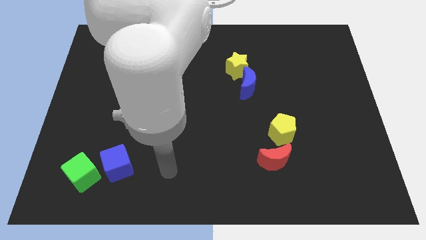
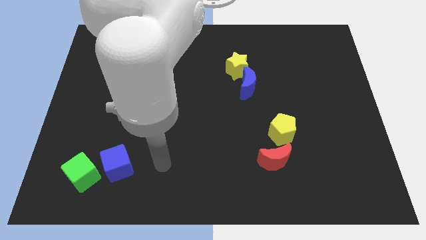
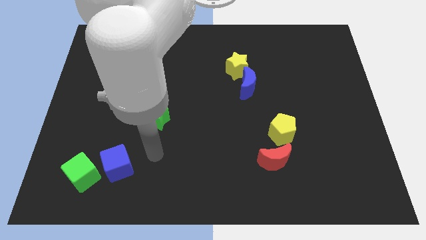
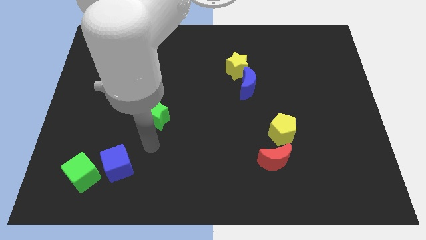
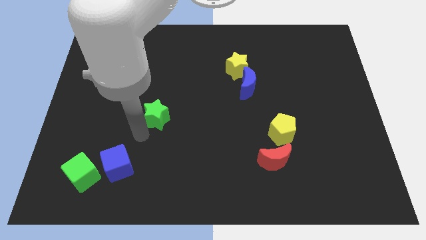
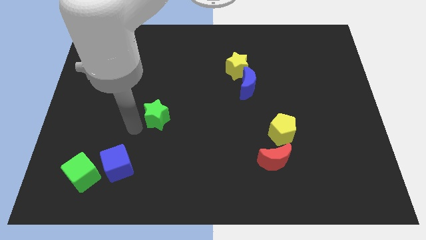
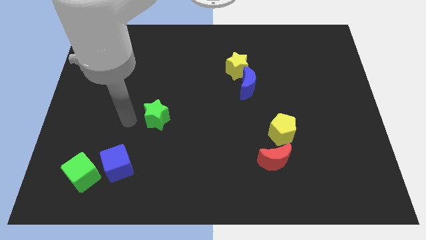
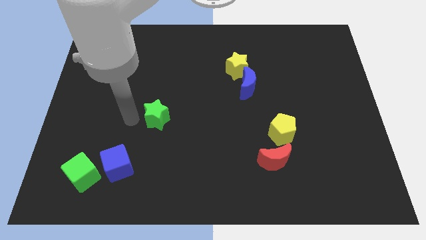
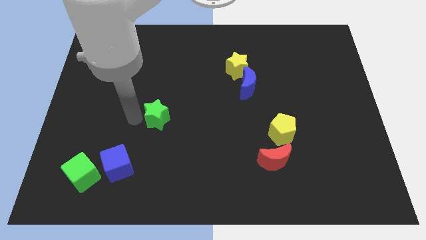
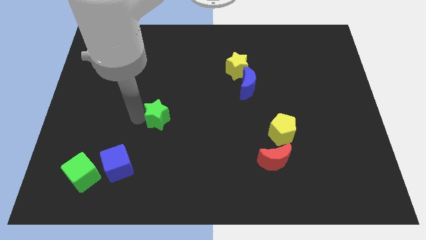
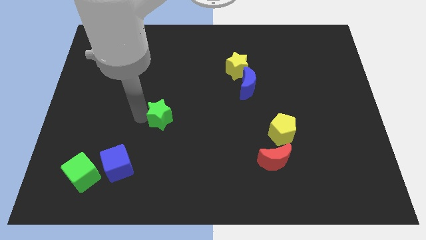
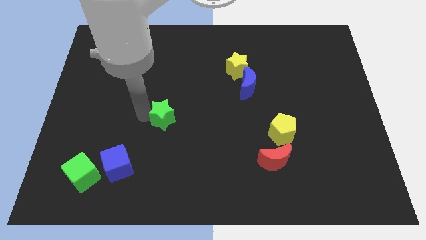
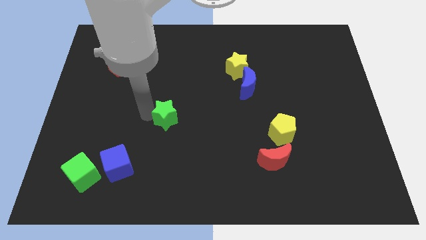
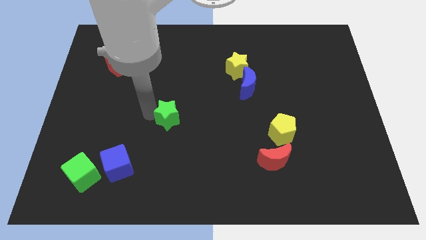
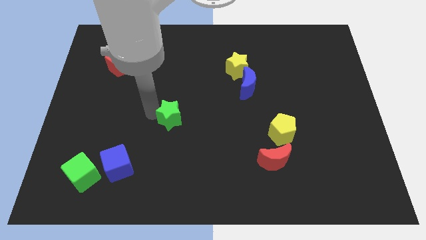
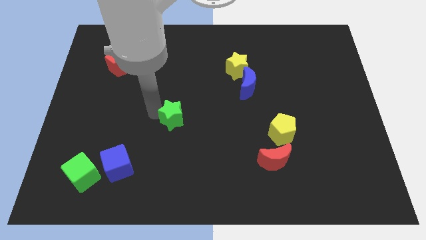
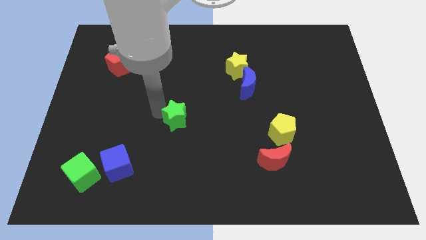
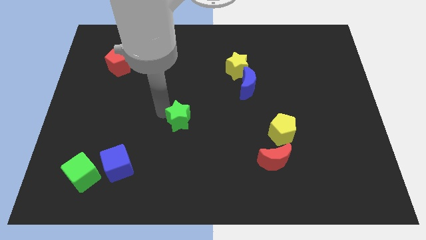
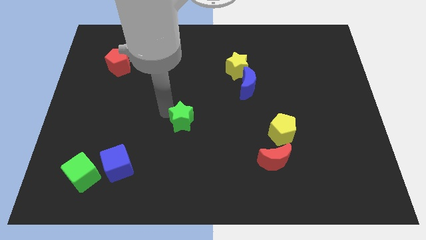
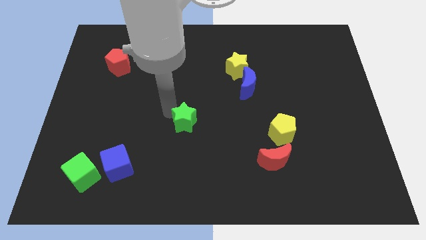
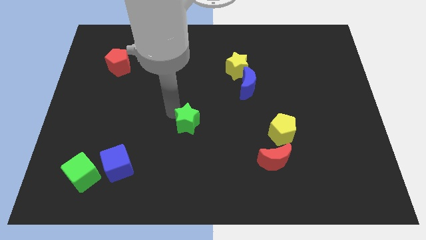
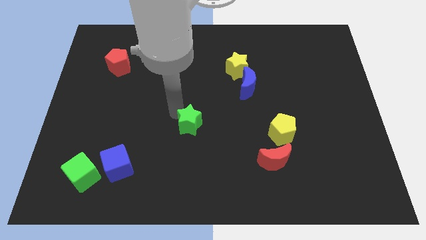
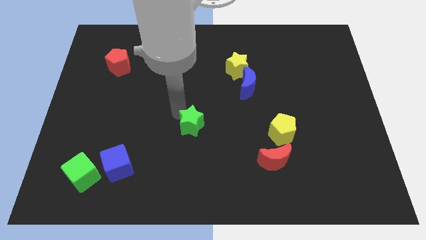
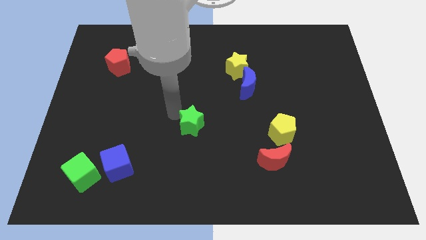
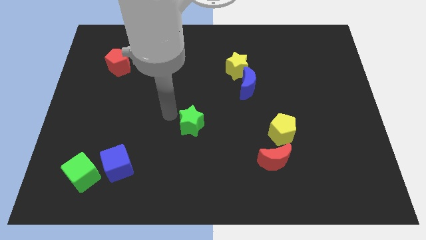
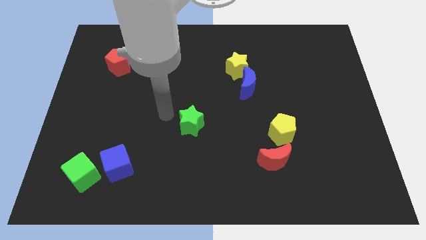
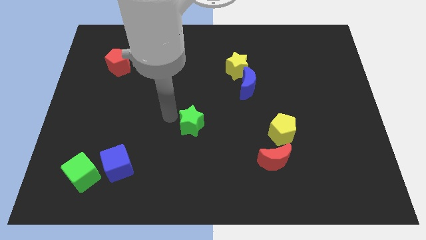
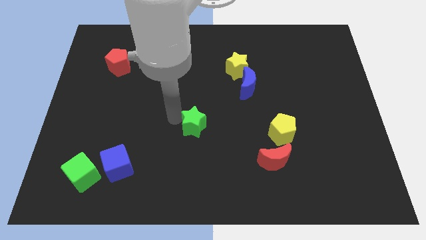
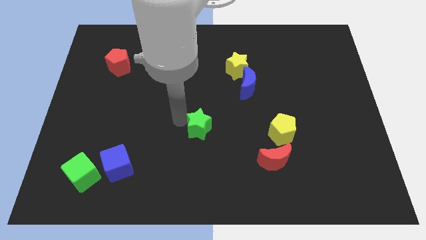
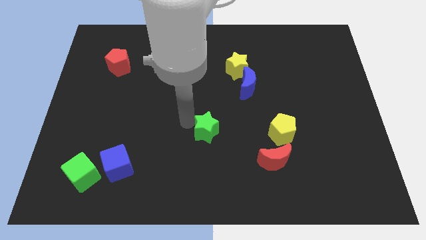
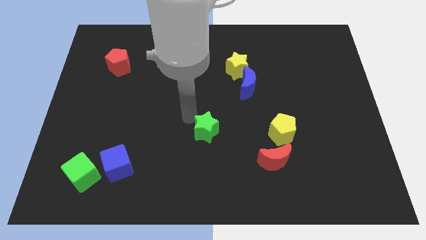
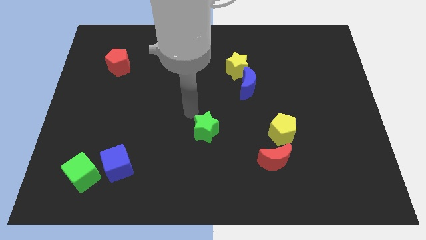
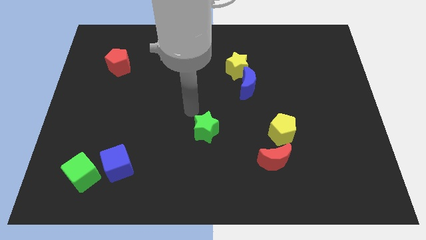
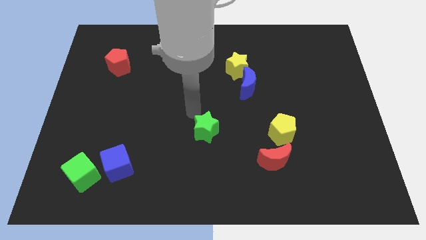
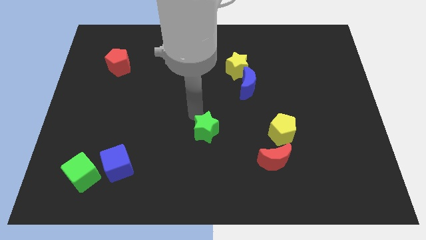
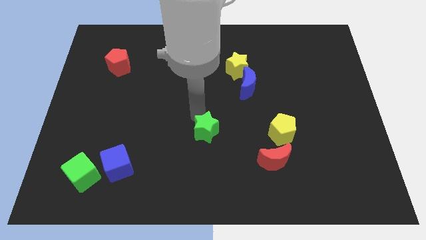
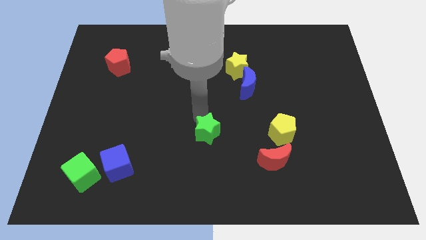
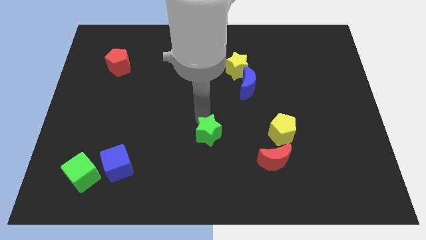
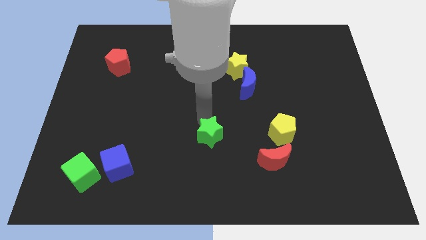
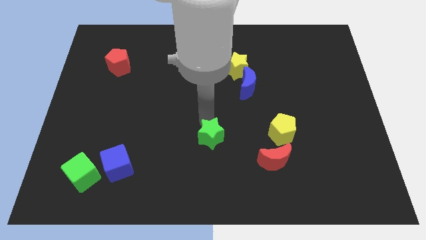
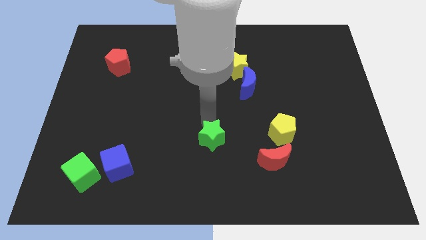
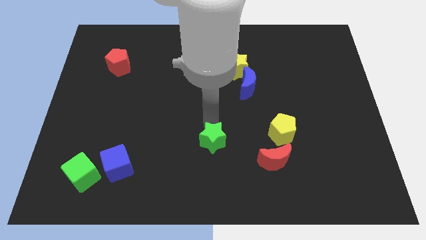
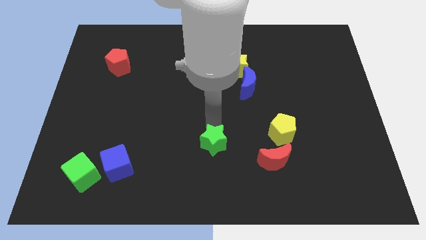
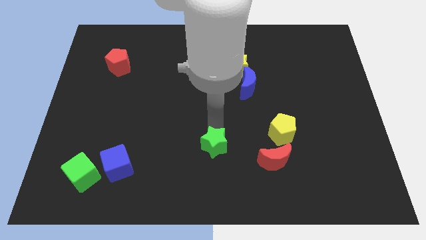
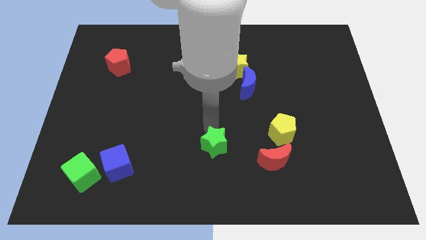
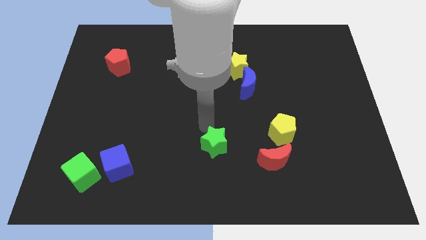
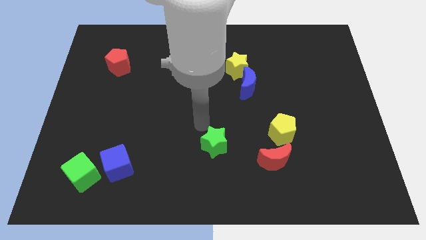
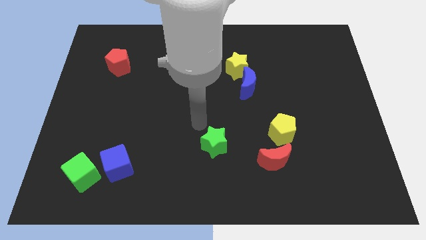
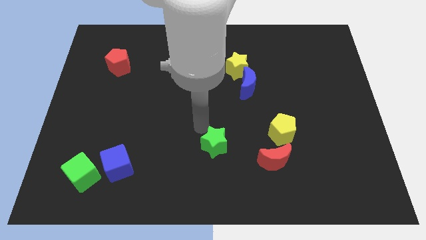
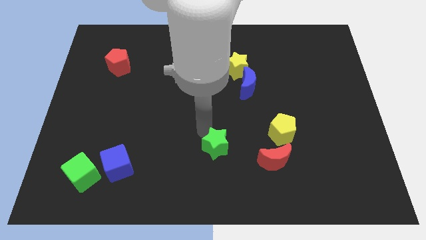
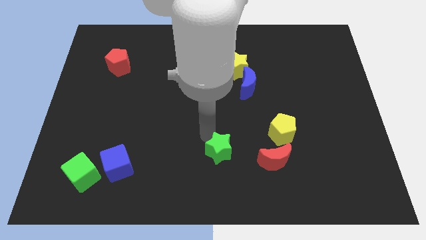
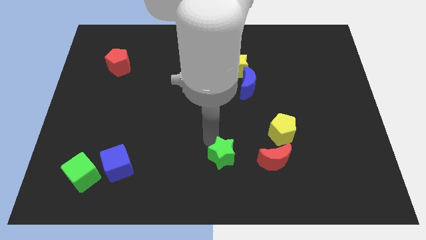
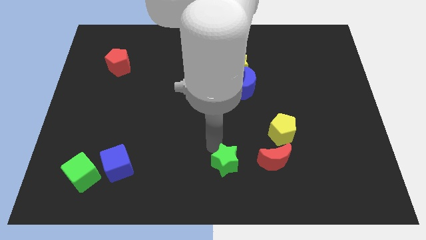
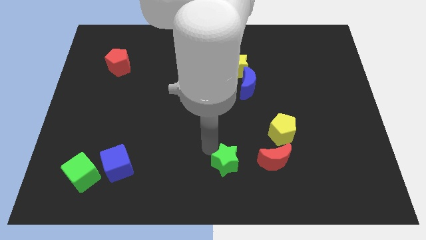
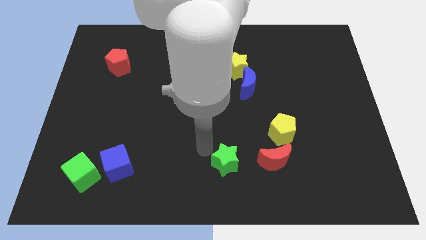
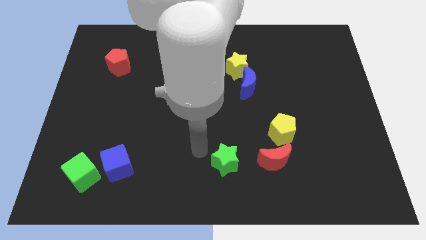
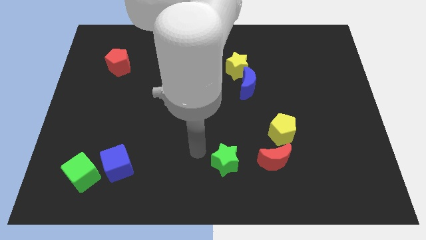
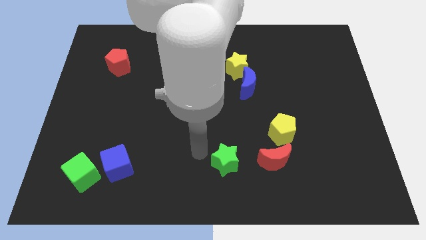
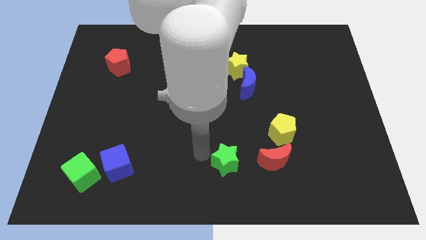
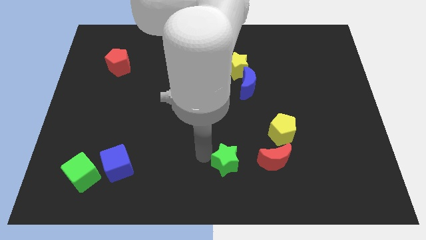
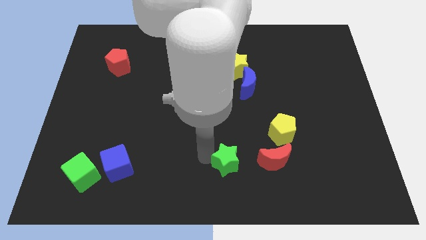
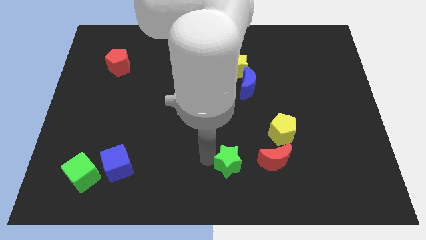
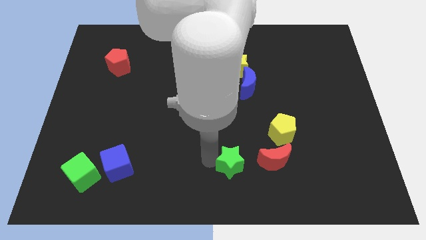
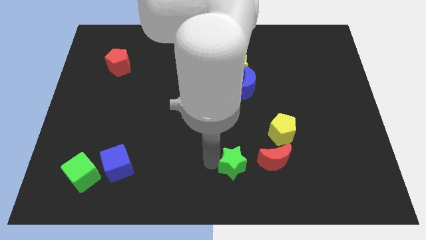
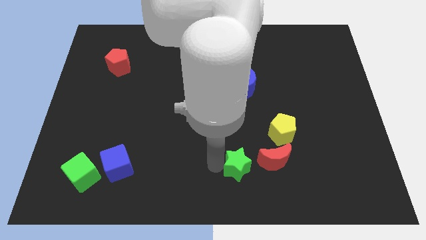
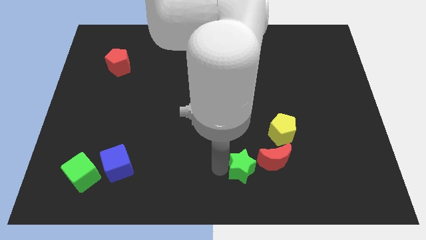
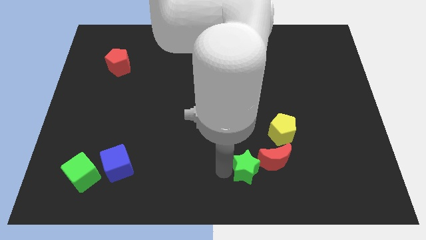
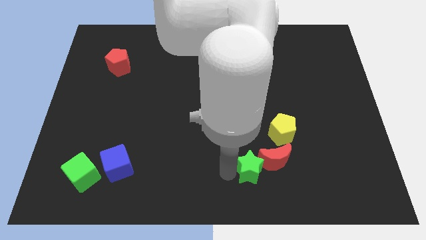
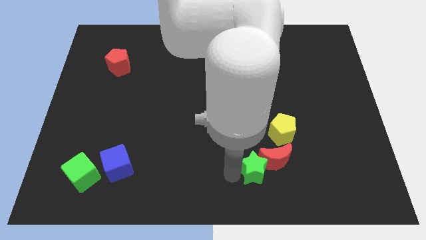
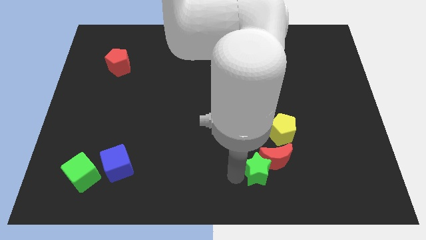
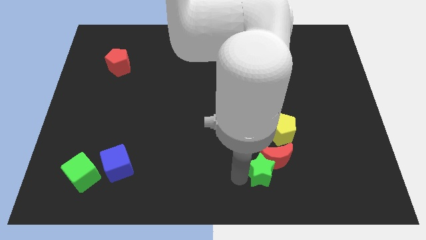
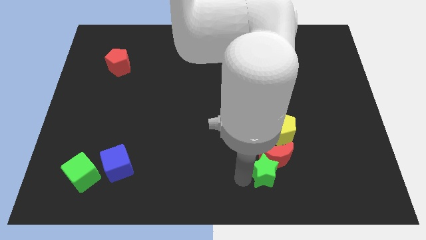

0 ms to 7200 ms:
push the green star to the bottom side of the yellow pentagon

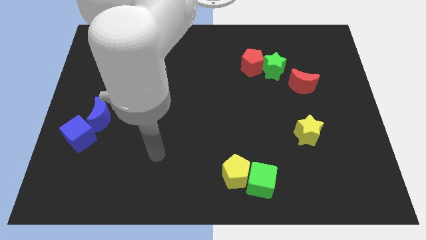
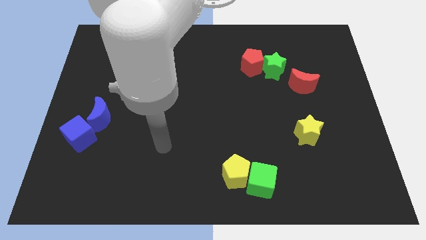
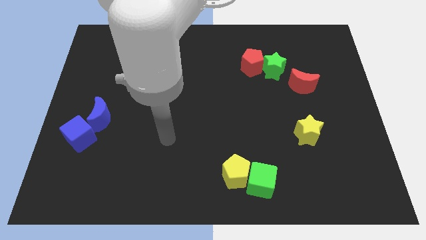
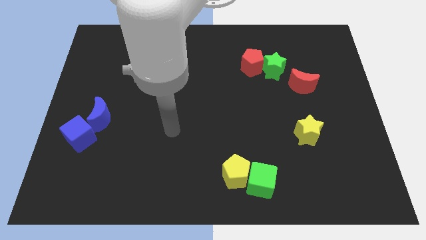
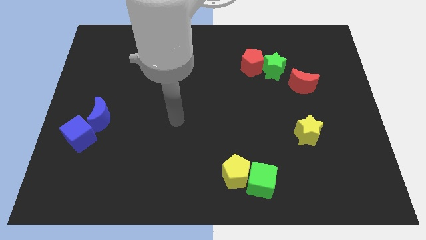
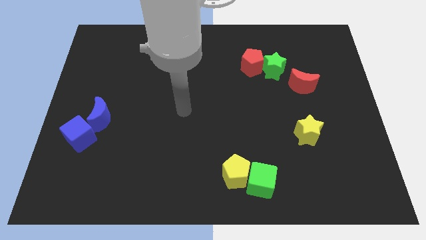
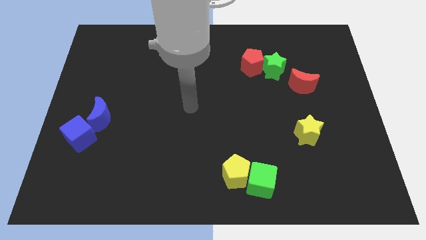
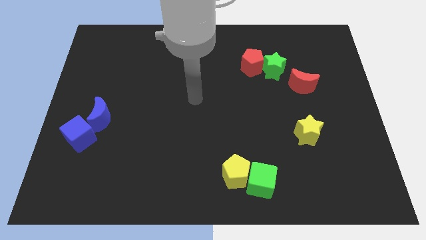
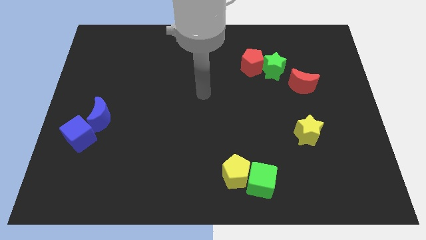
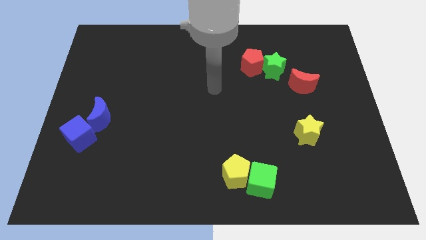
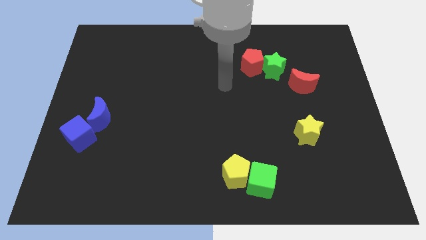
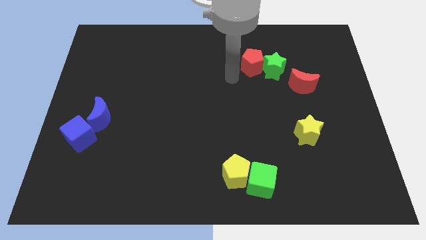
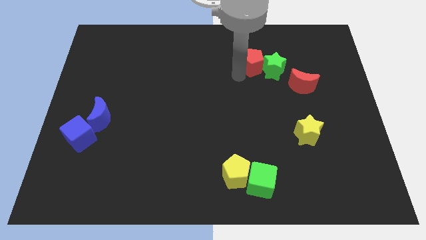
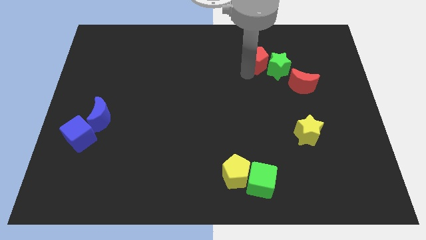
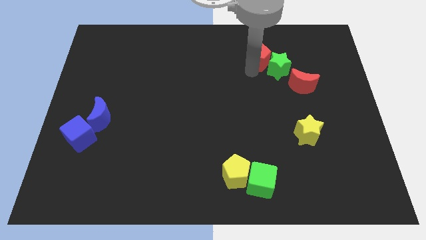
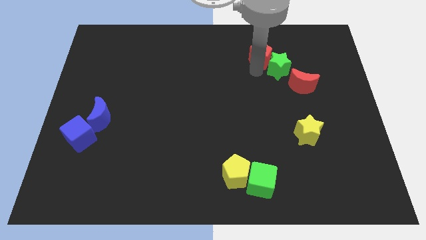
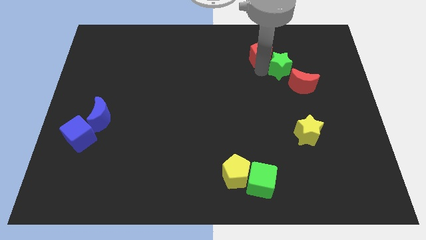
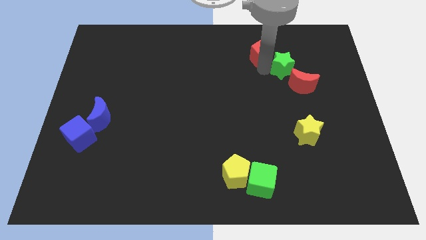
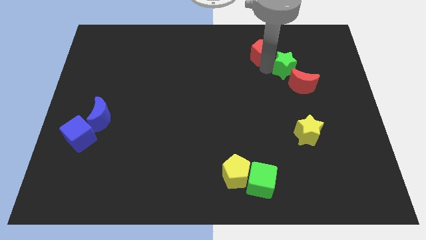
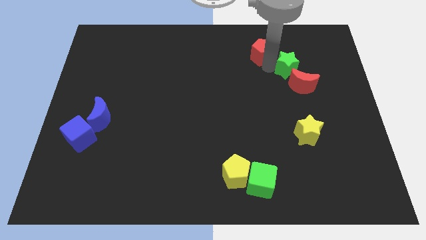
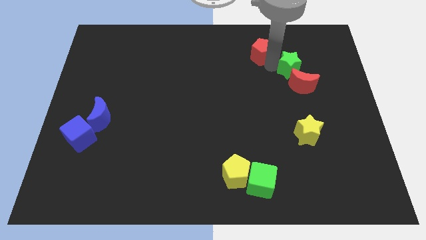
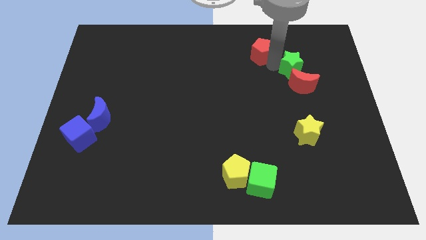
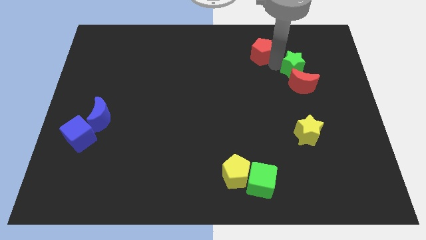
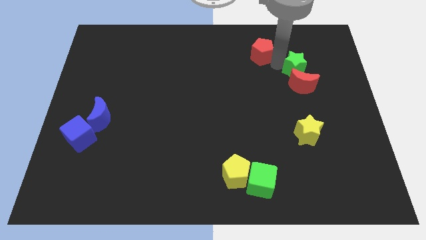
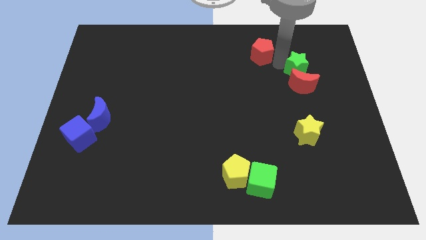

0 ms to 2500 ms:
move the green star to the top right side of the red moon
